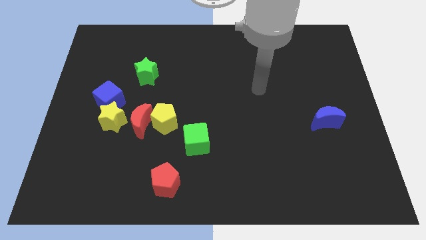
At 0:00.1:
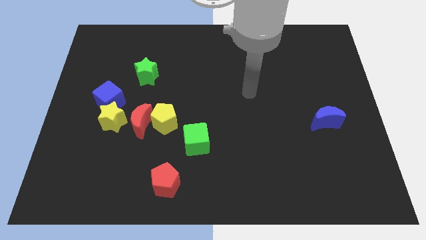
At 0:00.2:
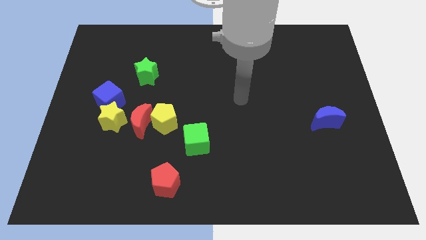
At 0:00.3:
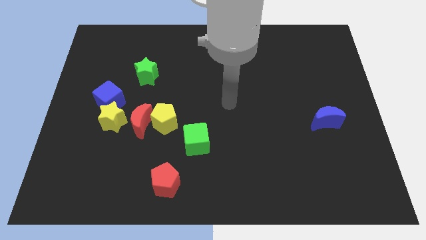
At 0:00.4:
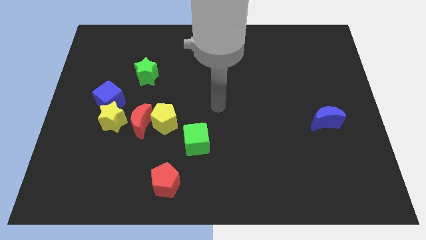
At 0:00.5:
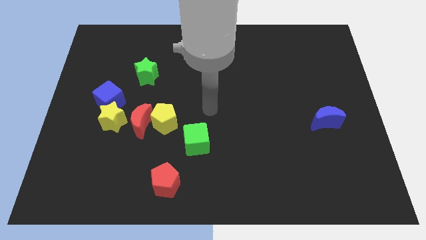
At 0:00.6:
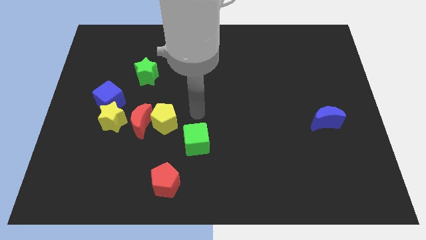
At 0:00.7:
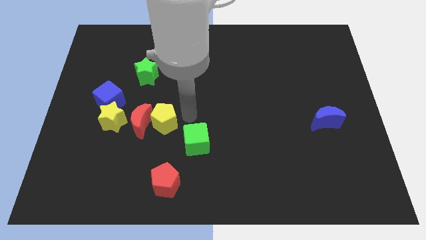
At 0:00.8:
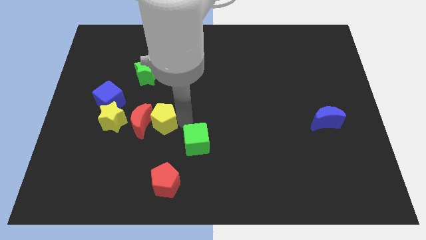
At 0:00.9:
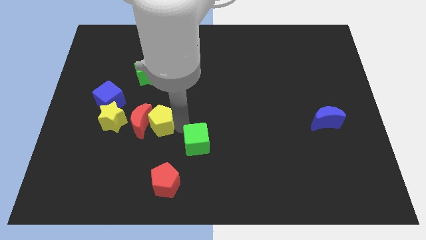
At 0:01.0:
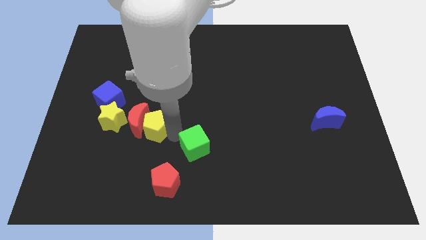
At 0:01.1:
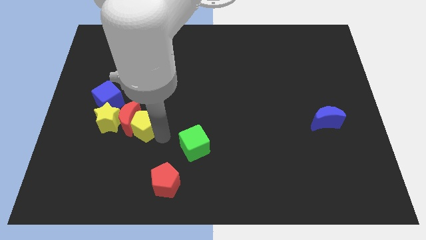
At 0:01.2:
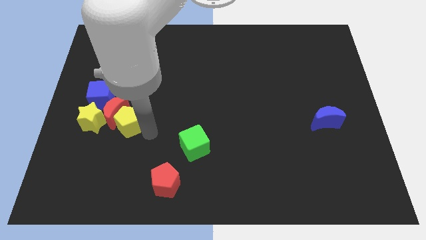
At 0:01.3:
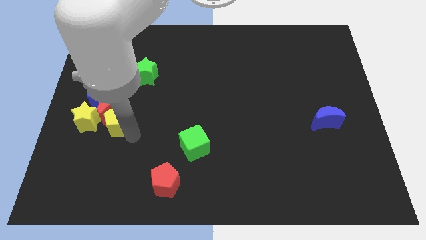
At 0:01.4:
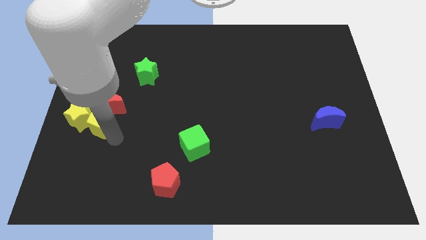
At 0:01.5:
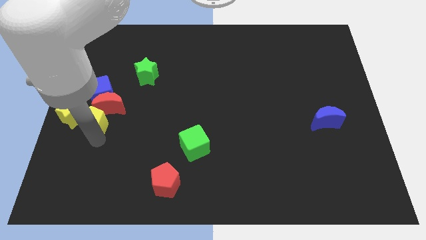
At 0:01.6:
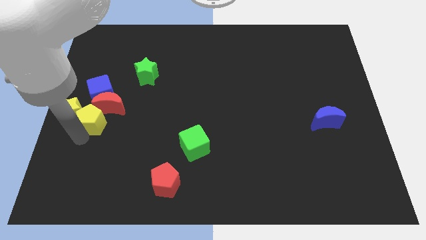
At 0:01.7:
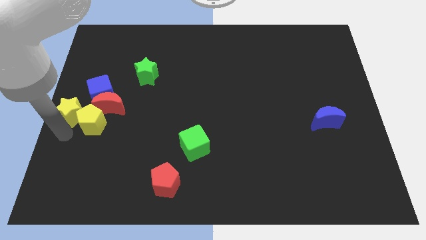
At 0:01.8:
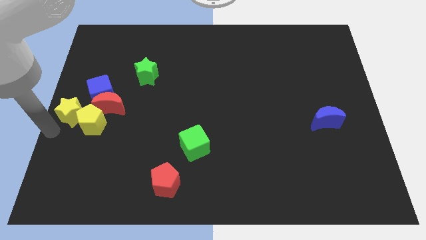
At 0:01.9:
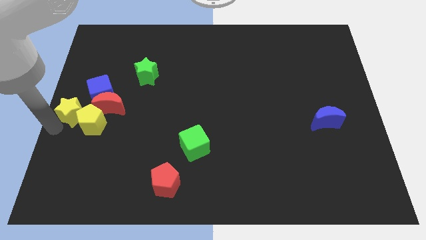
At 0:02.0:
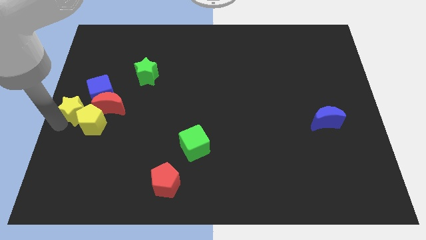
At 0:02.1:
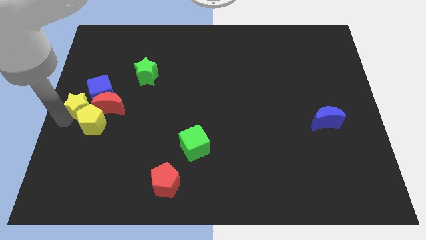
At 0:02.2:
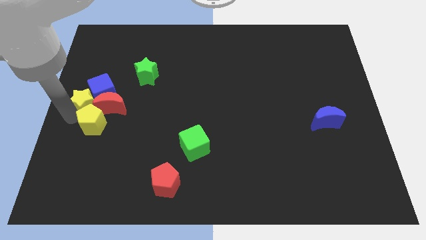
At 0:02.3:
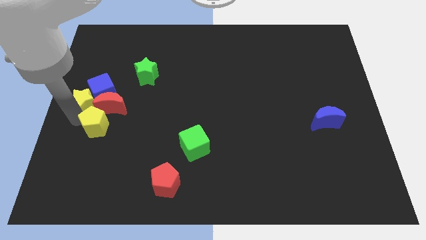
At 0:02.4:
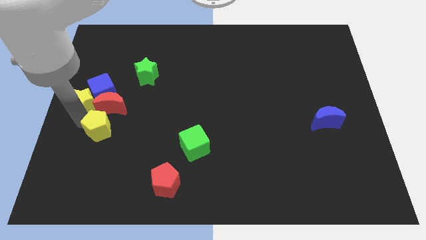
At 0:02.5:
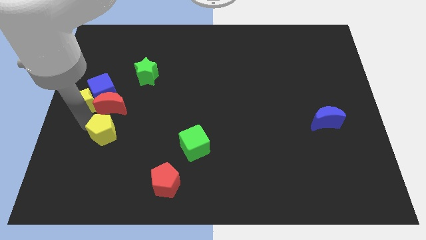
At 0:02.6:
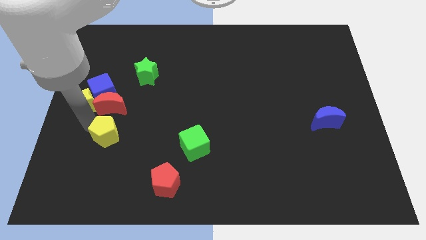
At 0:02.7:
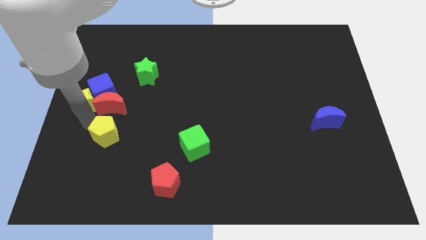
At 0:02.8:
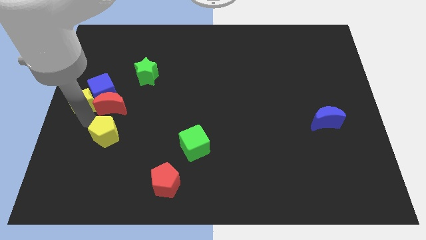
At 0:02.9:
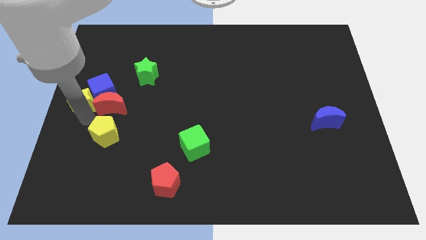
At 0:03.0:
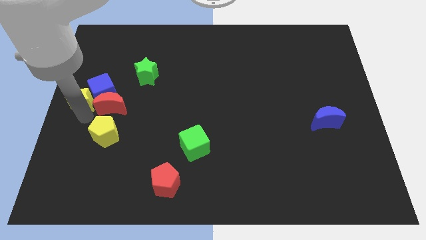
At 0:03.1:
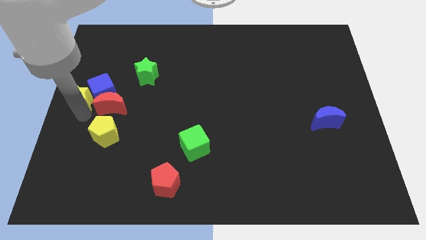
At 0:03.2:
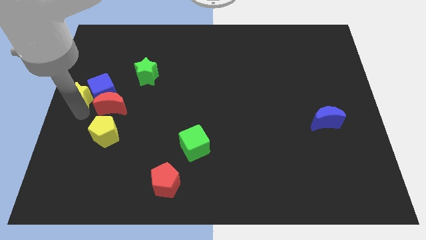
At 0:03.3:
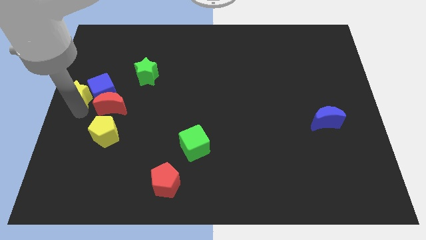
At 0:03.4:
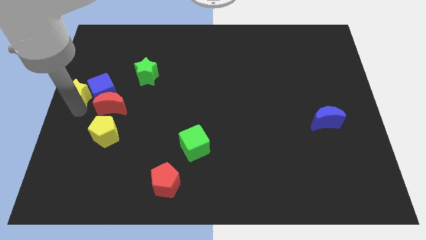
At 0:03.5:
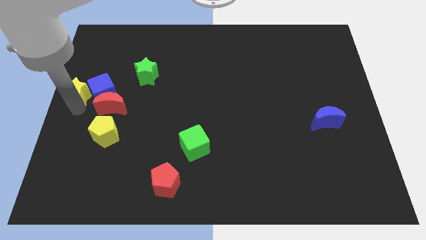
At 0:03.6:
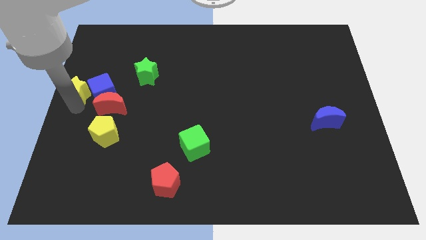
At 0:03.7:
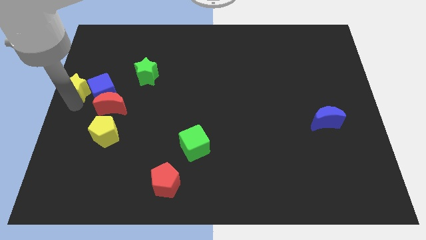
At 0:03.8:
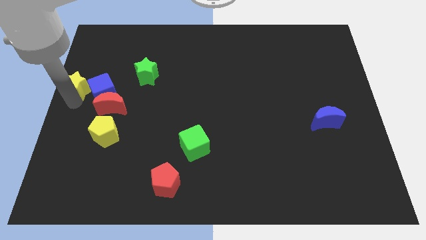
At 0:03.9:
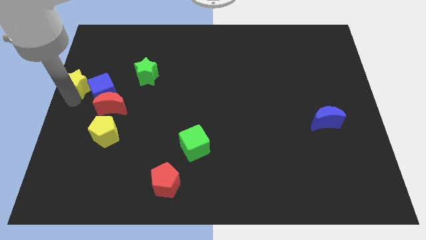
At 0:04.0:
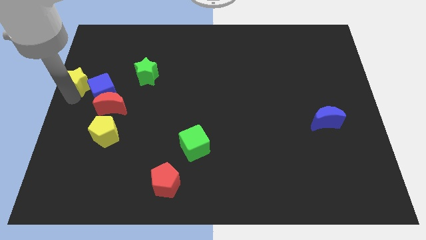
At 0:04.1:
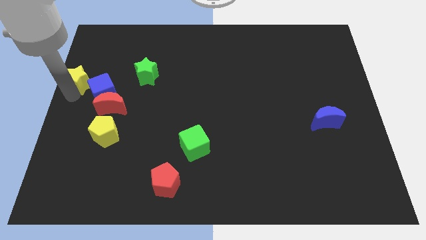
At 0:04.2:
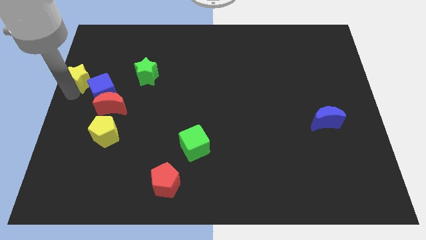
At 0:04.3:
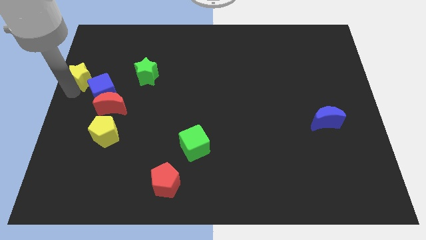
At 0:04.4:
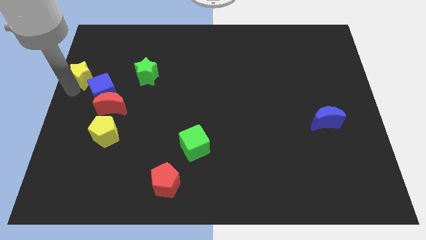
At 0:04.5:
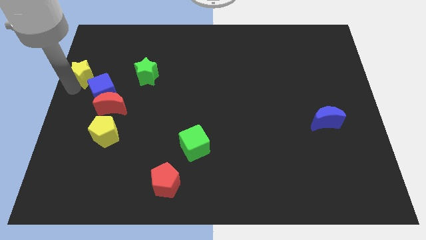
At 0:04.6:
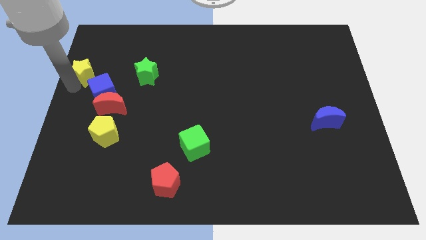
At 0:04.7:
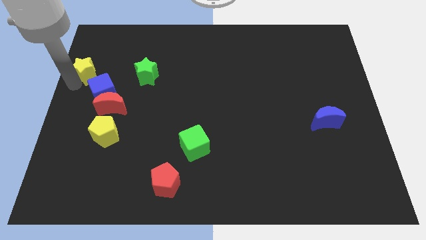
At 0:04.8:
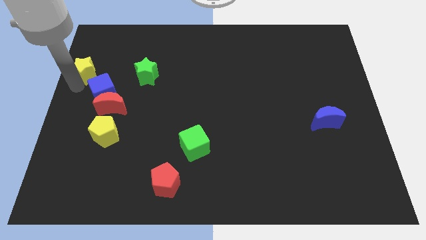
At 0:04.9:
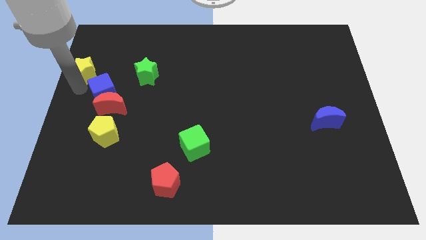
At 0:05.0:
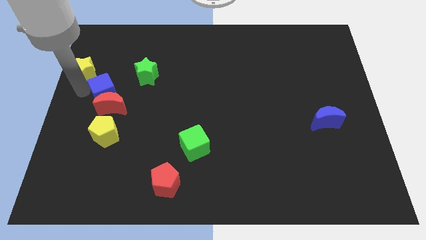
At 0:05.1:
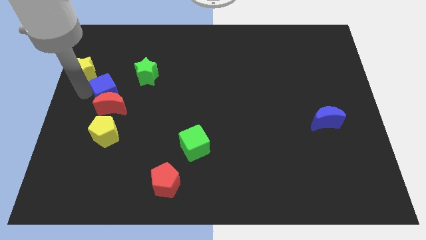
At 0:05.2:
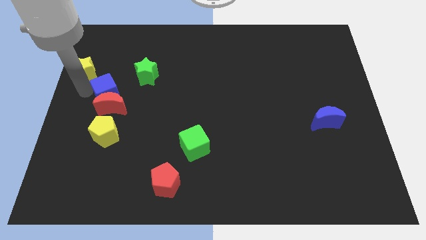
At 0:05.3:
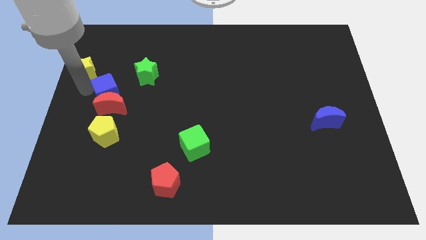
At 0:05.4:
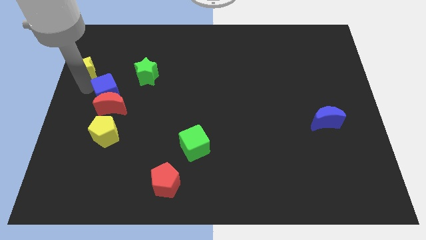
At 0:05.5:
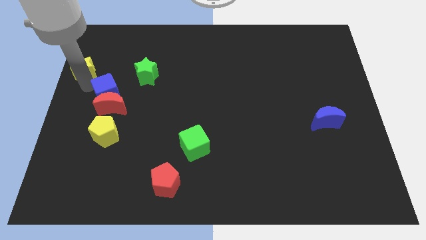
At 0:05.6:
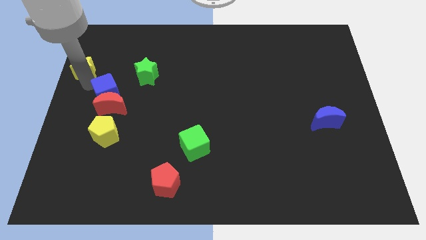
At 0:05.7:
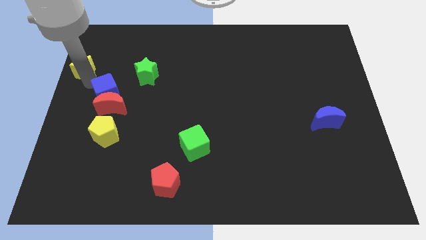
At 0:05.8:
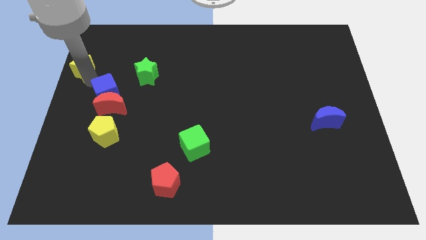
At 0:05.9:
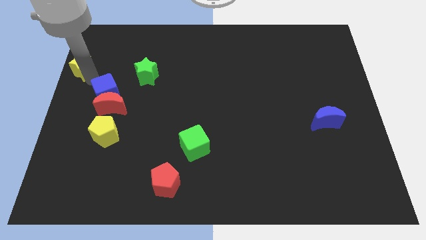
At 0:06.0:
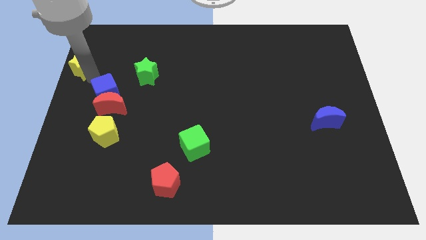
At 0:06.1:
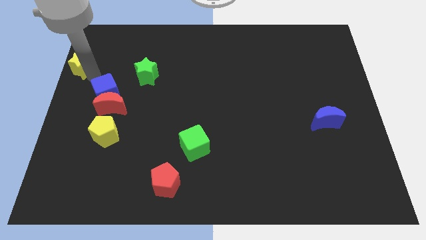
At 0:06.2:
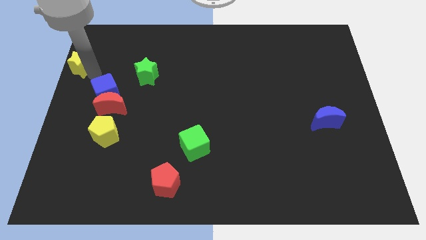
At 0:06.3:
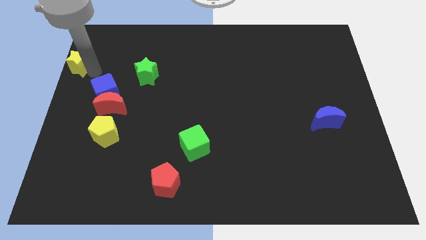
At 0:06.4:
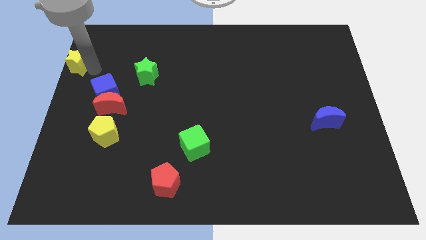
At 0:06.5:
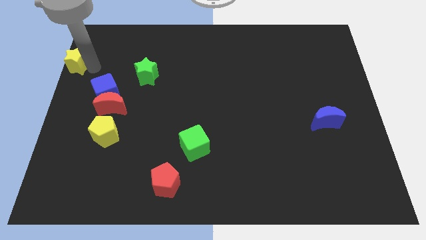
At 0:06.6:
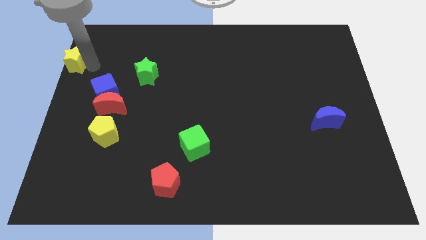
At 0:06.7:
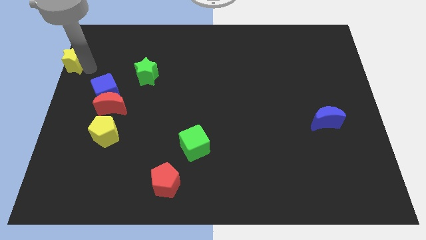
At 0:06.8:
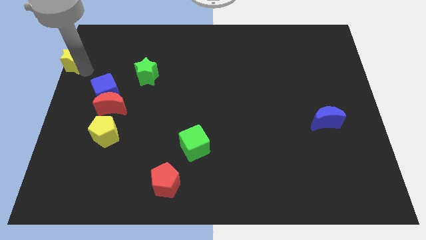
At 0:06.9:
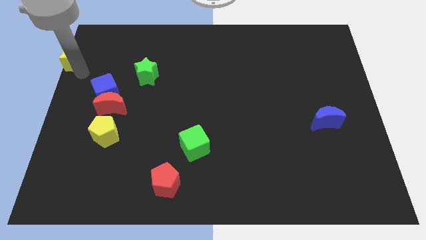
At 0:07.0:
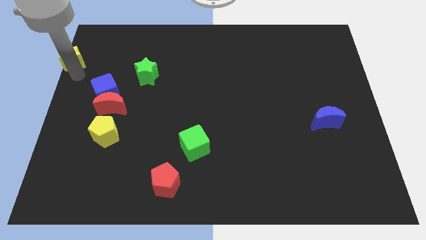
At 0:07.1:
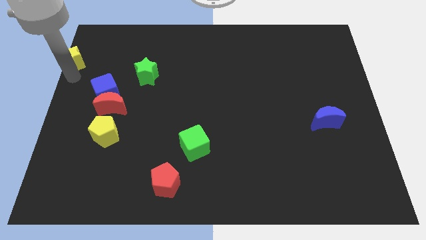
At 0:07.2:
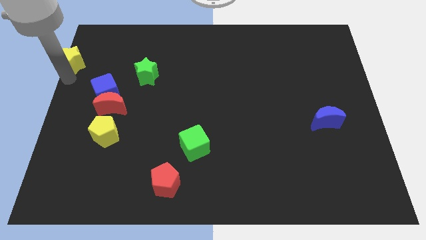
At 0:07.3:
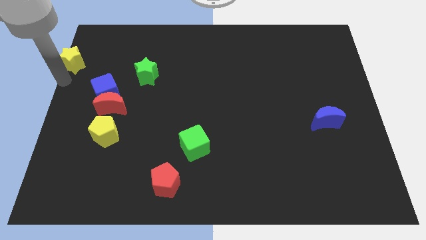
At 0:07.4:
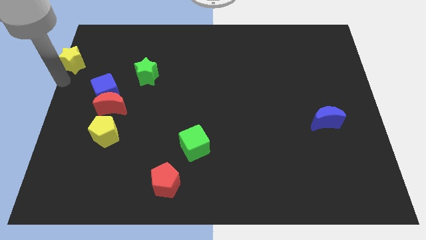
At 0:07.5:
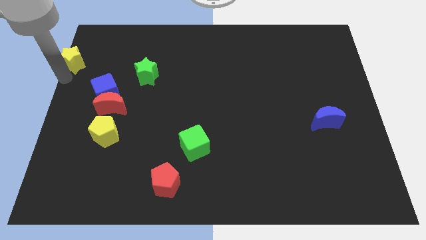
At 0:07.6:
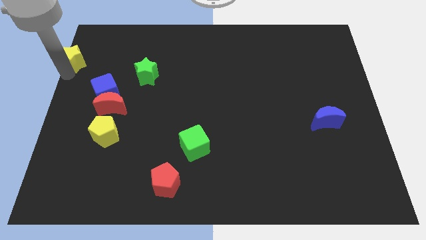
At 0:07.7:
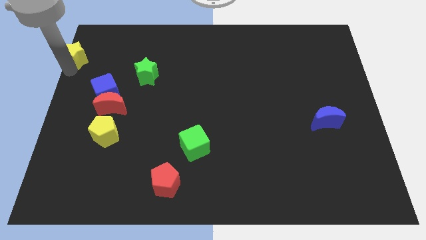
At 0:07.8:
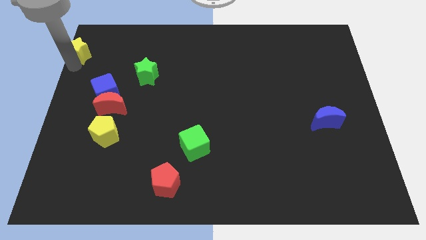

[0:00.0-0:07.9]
move the yellow star to the top left of the board
